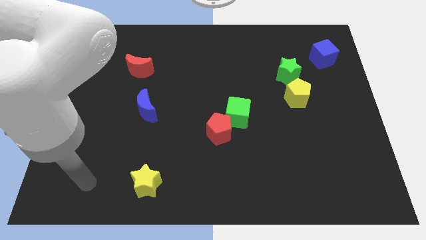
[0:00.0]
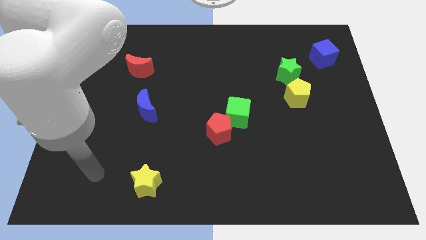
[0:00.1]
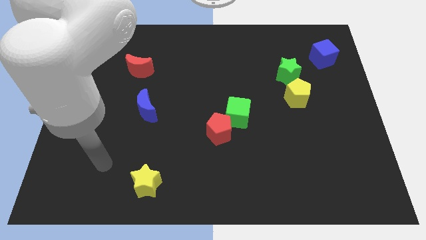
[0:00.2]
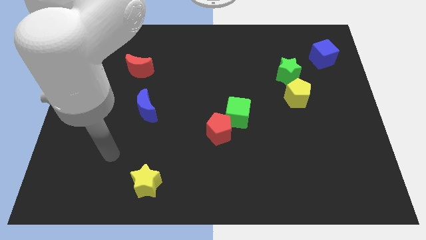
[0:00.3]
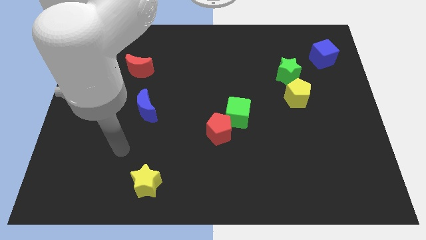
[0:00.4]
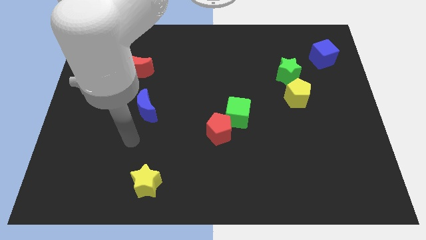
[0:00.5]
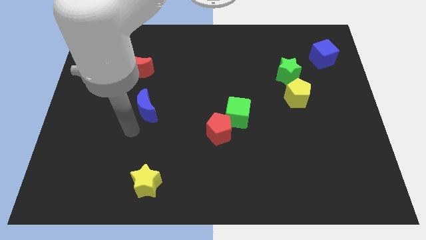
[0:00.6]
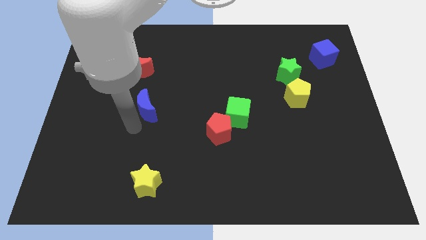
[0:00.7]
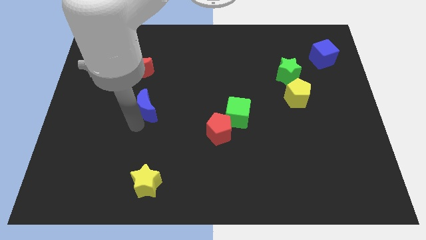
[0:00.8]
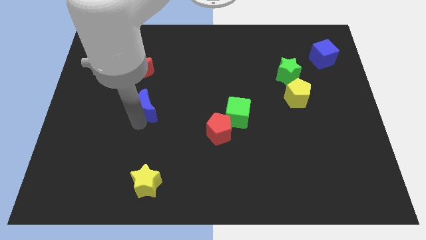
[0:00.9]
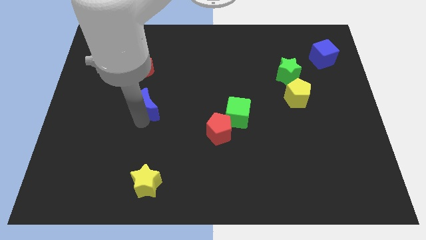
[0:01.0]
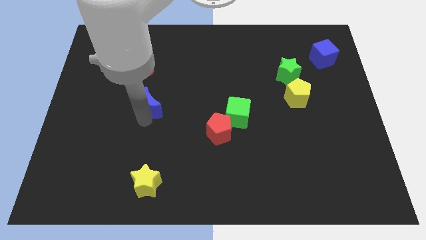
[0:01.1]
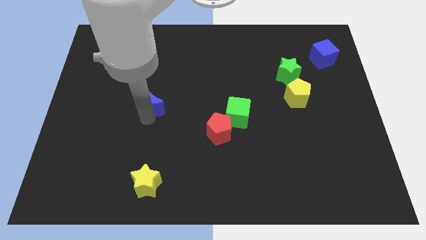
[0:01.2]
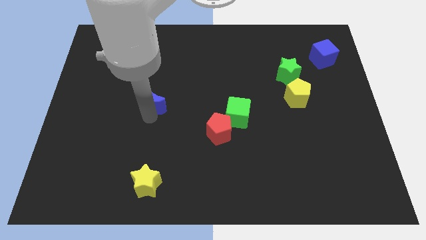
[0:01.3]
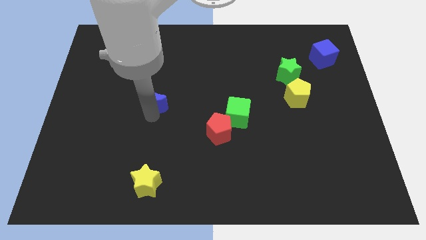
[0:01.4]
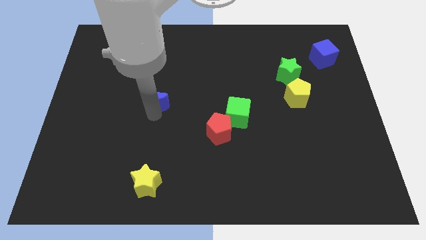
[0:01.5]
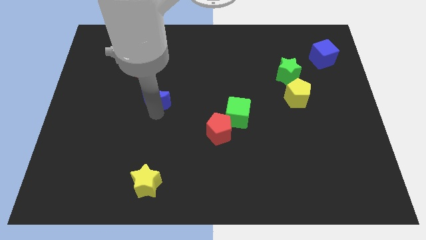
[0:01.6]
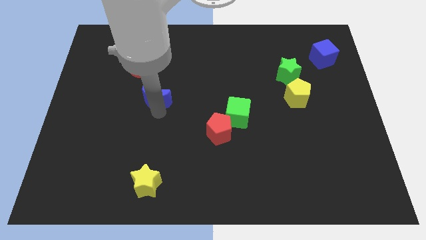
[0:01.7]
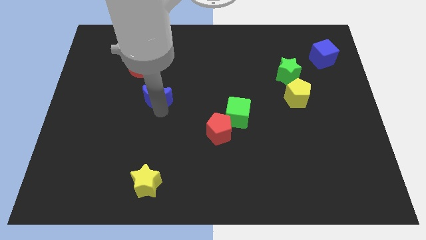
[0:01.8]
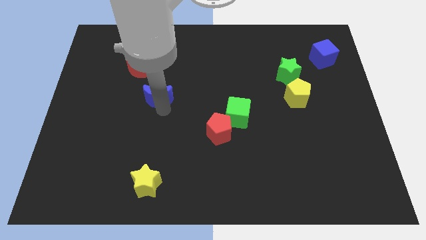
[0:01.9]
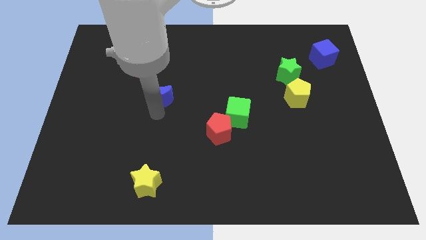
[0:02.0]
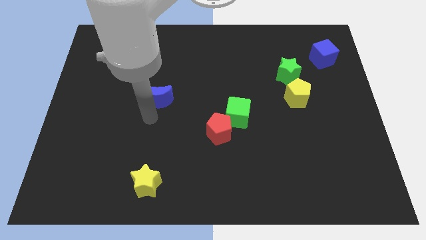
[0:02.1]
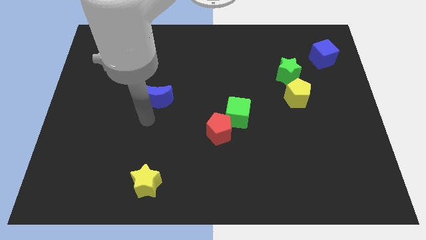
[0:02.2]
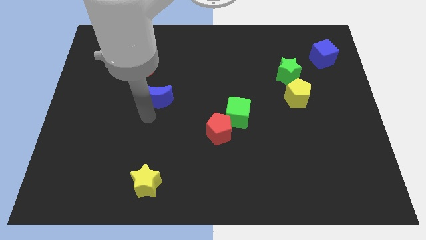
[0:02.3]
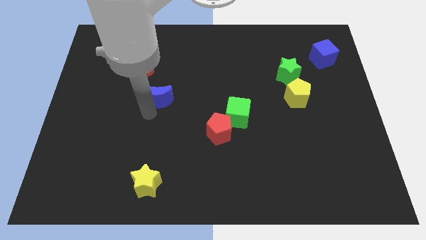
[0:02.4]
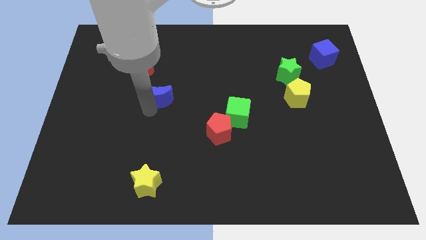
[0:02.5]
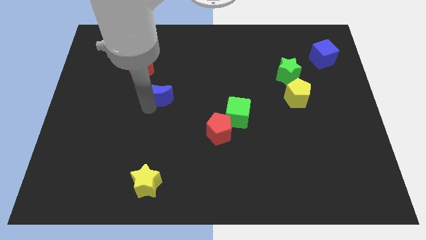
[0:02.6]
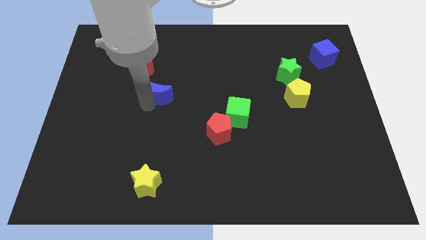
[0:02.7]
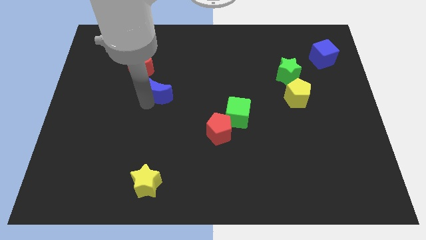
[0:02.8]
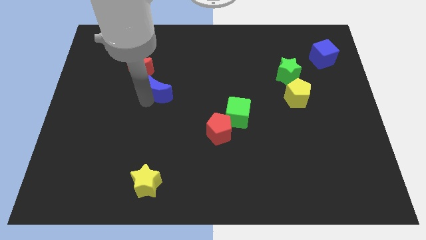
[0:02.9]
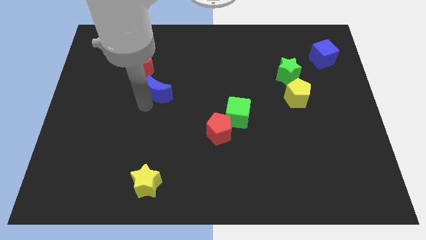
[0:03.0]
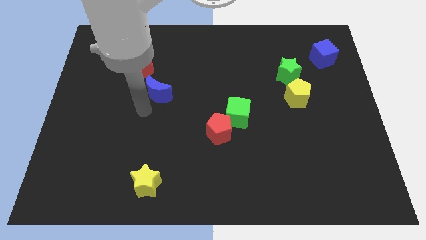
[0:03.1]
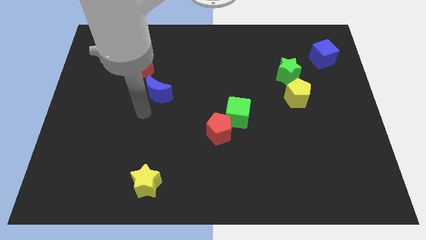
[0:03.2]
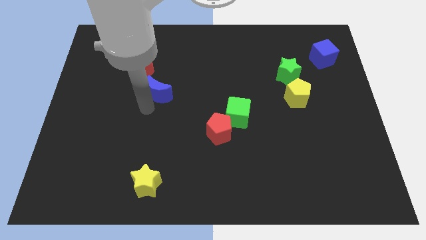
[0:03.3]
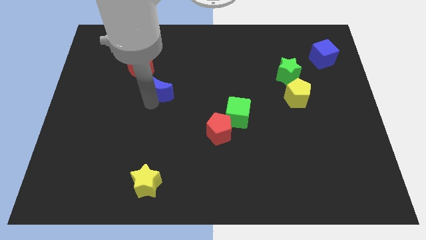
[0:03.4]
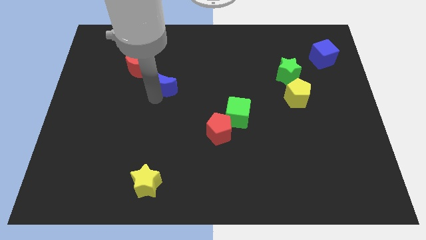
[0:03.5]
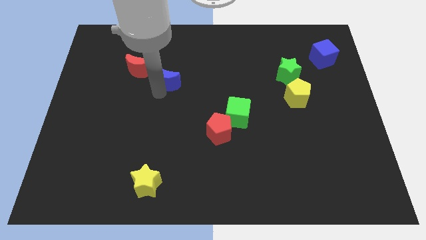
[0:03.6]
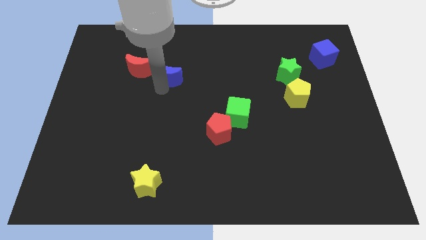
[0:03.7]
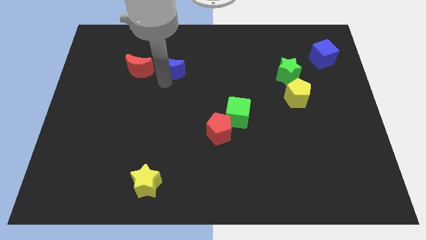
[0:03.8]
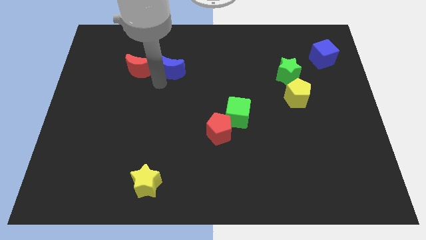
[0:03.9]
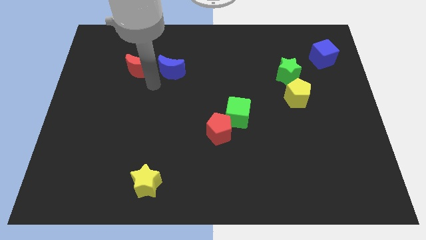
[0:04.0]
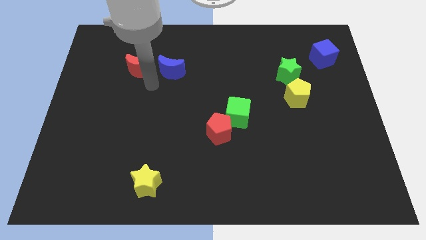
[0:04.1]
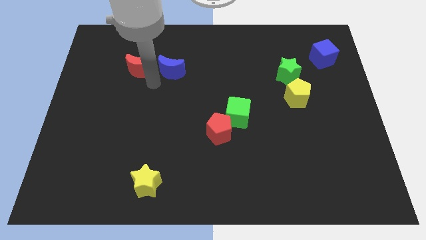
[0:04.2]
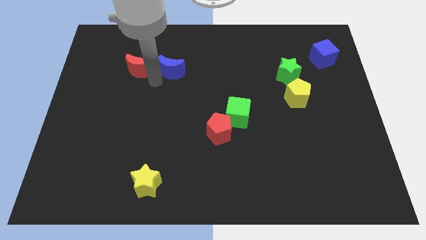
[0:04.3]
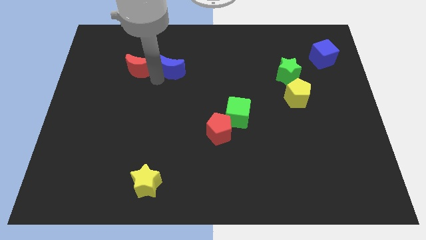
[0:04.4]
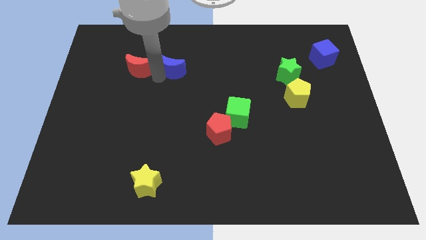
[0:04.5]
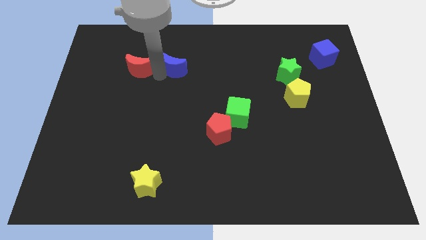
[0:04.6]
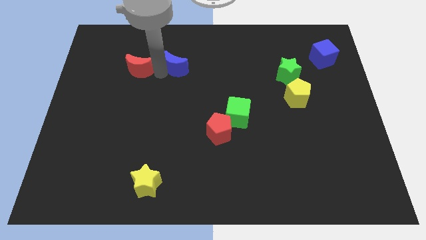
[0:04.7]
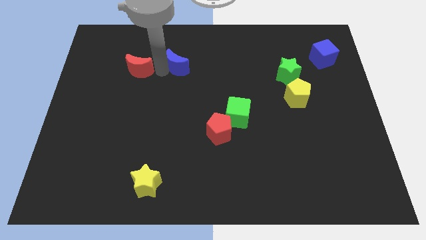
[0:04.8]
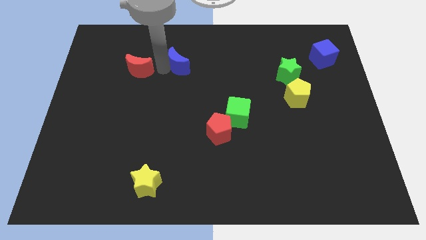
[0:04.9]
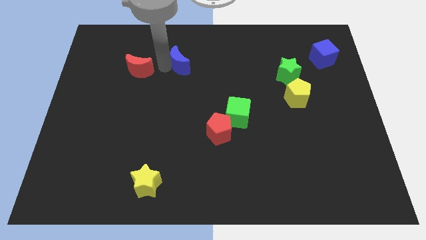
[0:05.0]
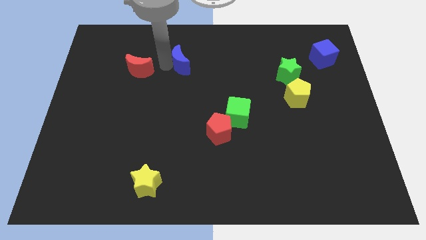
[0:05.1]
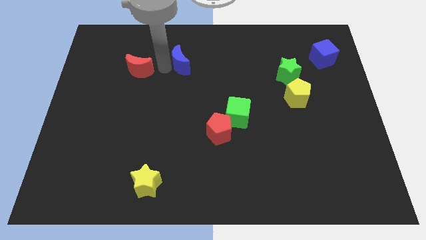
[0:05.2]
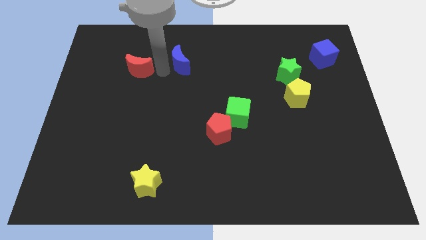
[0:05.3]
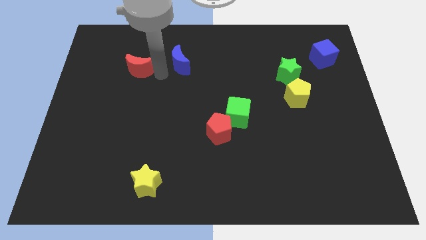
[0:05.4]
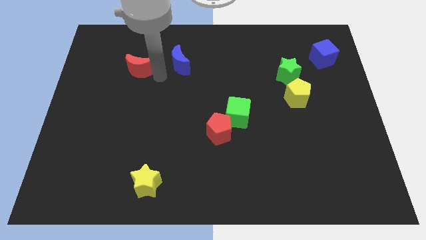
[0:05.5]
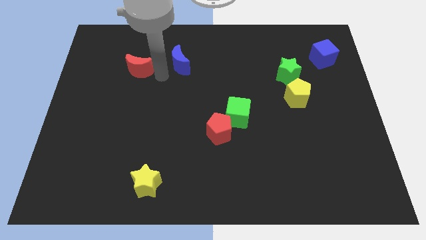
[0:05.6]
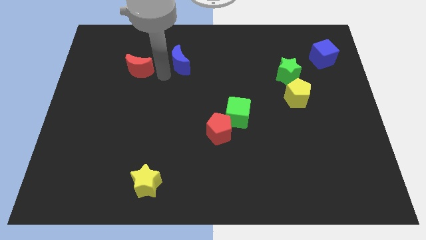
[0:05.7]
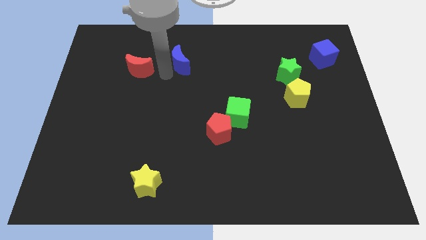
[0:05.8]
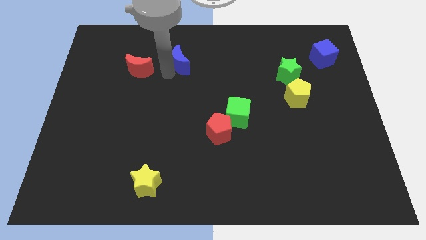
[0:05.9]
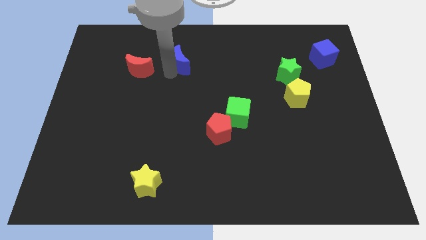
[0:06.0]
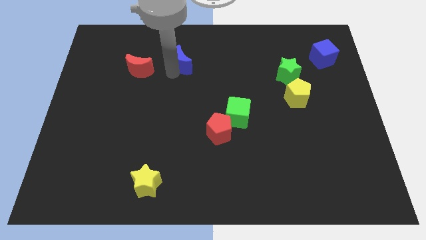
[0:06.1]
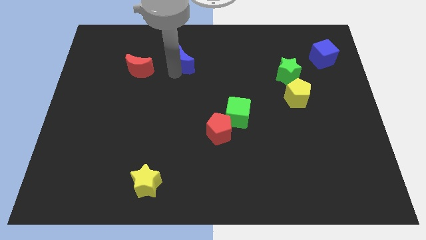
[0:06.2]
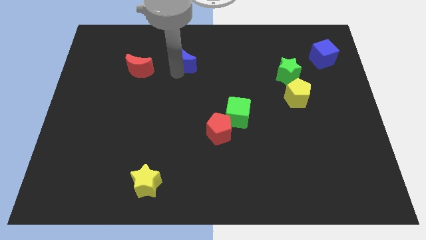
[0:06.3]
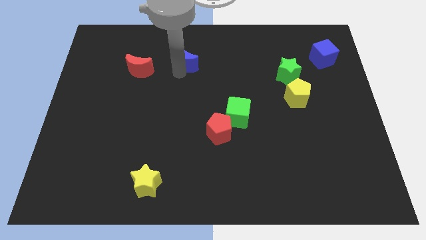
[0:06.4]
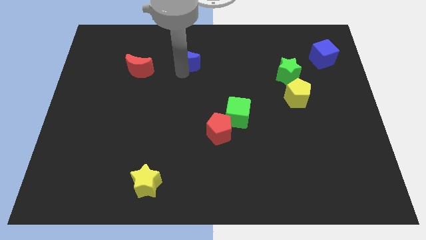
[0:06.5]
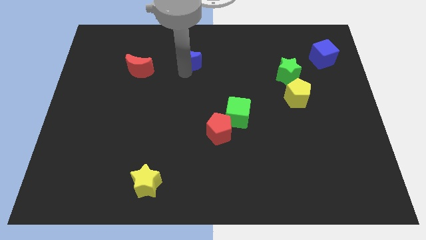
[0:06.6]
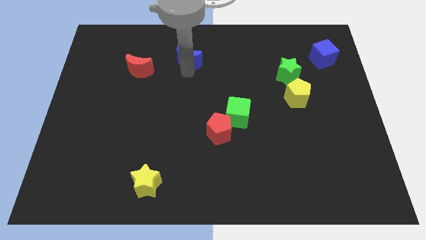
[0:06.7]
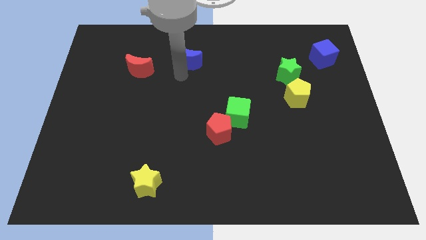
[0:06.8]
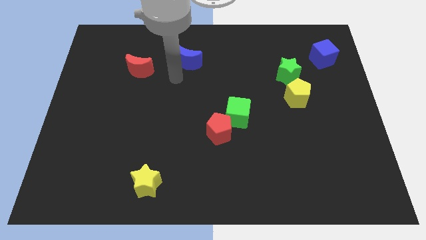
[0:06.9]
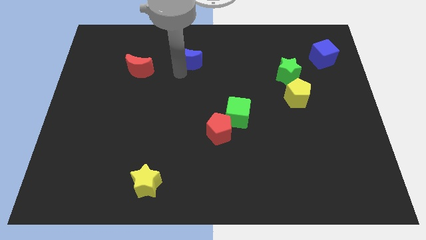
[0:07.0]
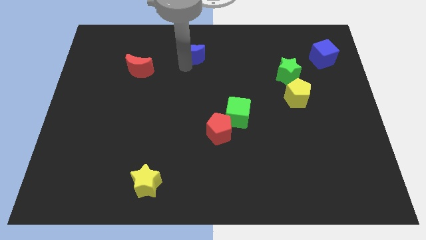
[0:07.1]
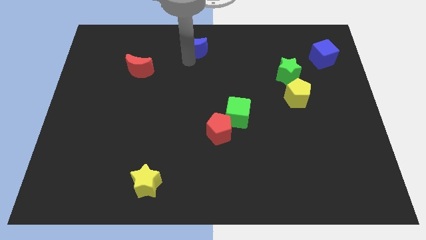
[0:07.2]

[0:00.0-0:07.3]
push the blue moon to the towards your base
